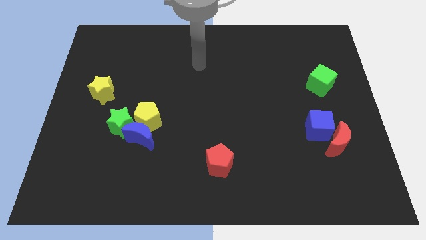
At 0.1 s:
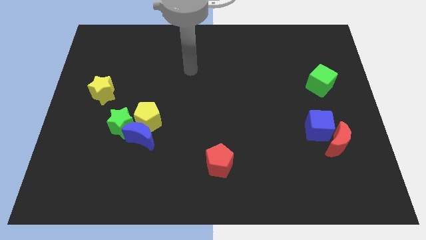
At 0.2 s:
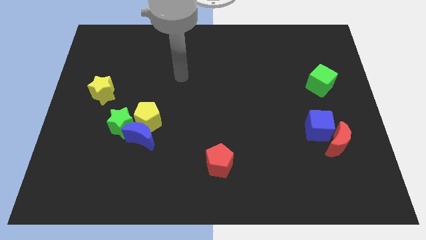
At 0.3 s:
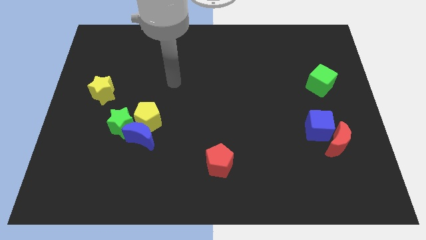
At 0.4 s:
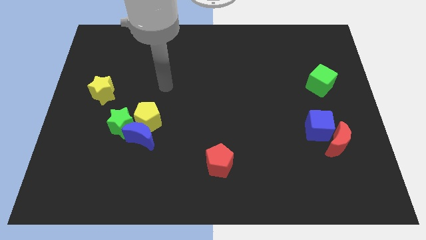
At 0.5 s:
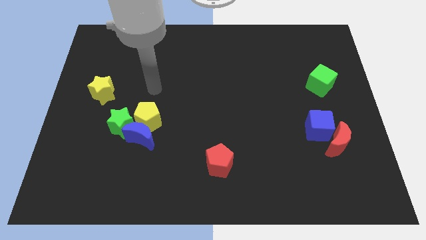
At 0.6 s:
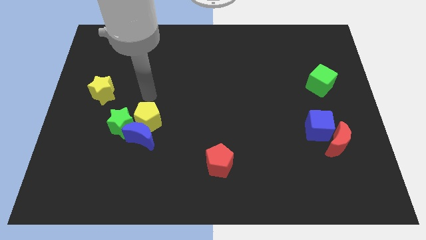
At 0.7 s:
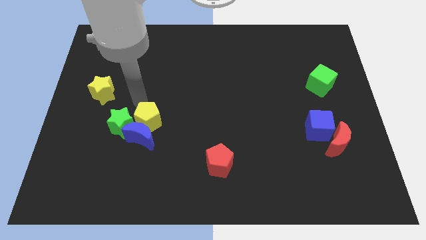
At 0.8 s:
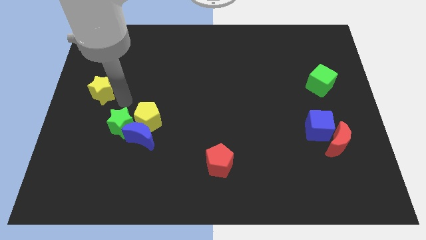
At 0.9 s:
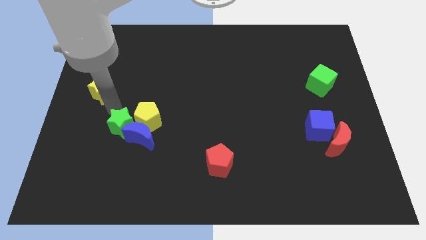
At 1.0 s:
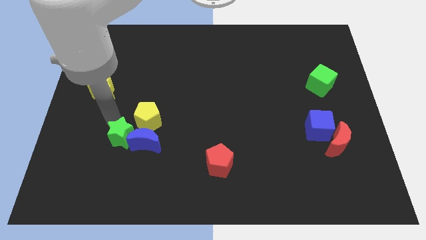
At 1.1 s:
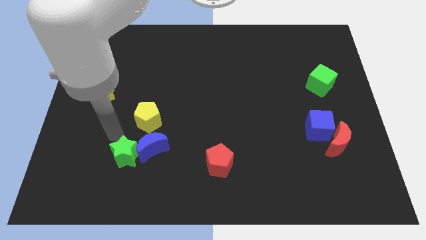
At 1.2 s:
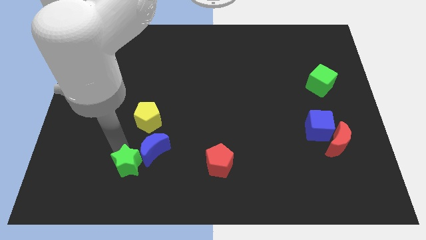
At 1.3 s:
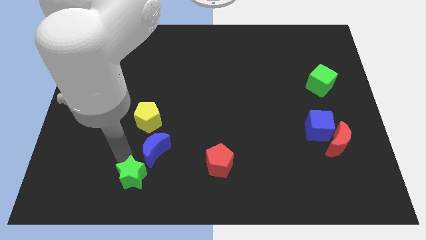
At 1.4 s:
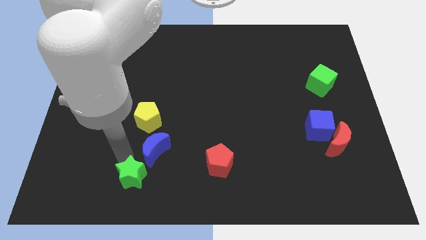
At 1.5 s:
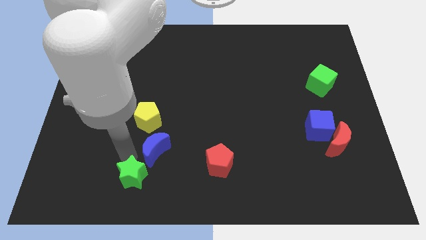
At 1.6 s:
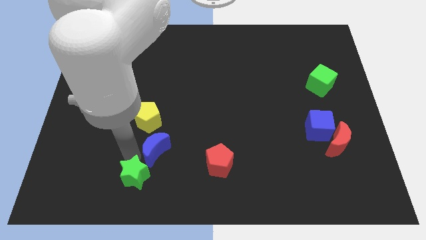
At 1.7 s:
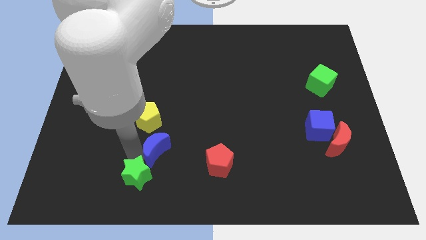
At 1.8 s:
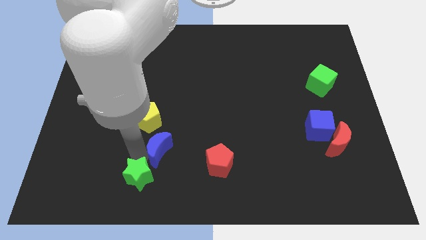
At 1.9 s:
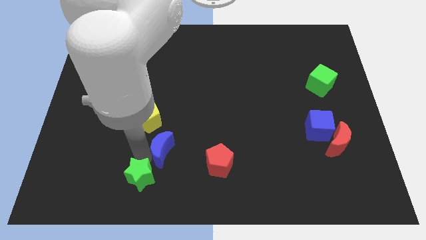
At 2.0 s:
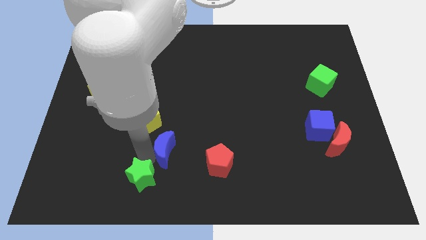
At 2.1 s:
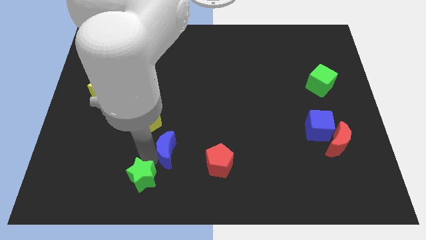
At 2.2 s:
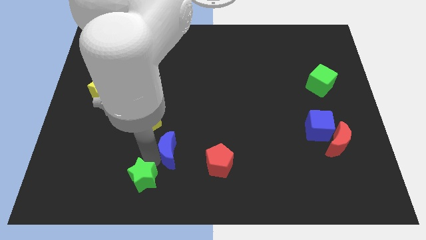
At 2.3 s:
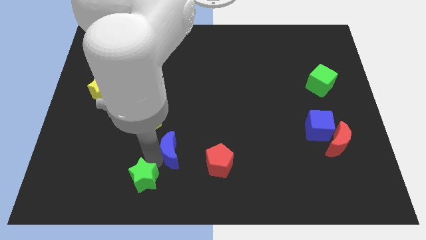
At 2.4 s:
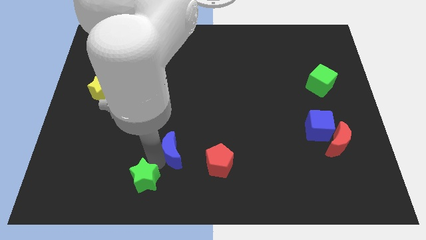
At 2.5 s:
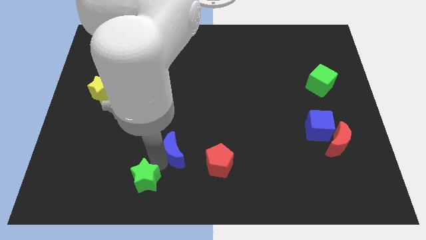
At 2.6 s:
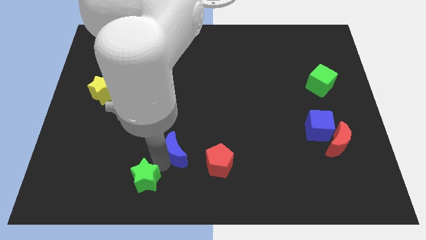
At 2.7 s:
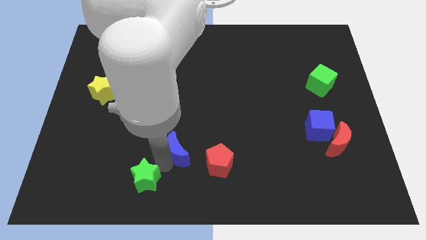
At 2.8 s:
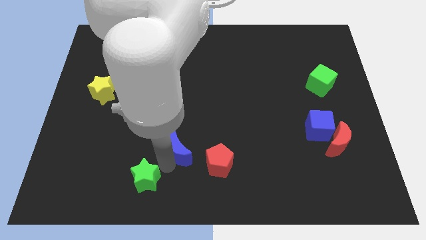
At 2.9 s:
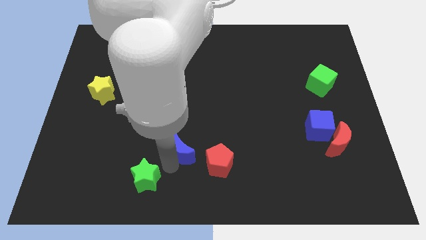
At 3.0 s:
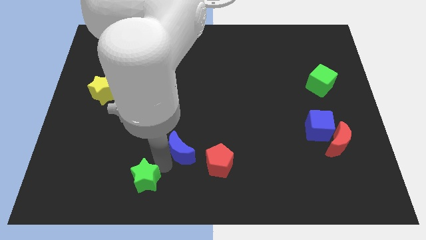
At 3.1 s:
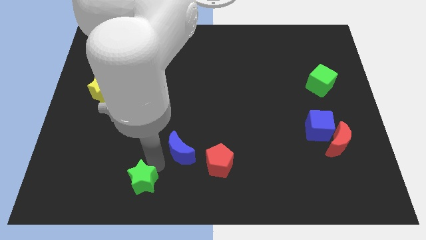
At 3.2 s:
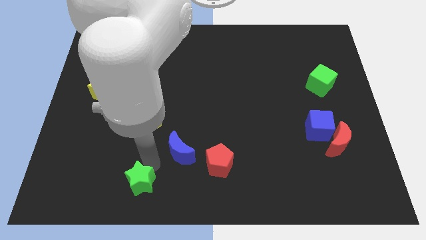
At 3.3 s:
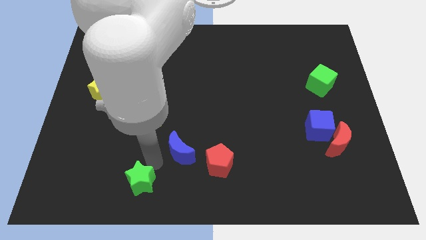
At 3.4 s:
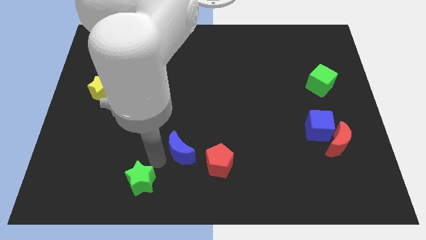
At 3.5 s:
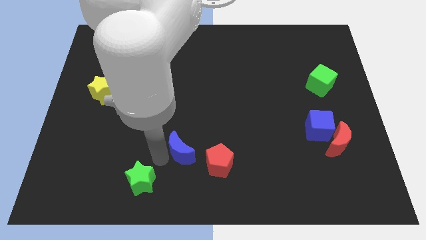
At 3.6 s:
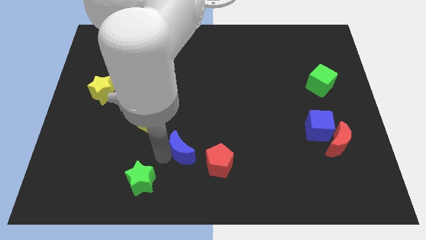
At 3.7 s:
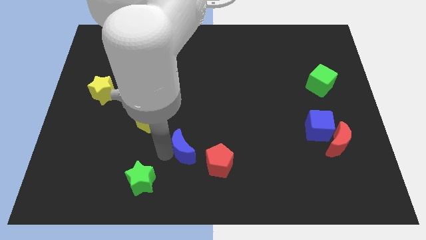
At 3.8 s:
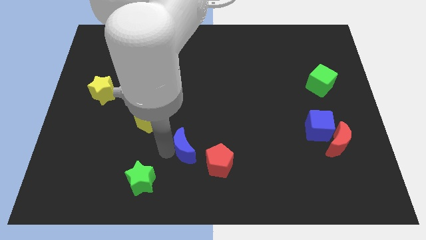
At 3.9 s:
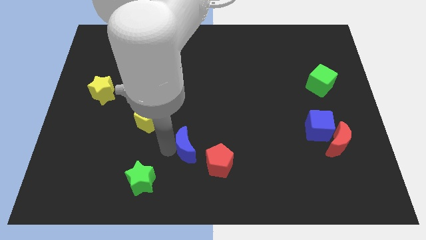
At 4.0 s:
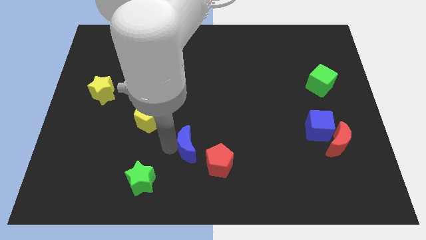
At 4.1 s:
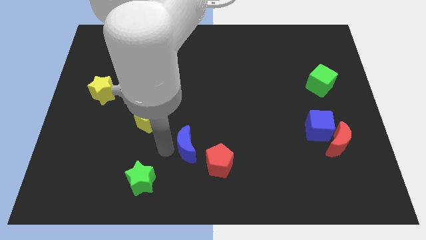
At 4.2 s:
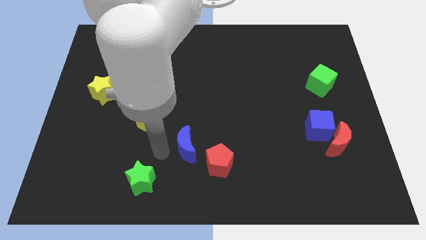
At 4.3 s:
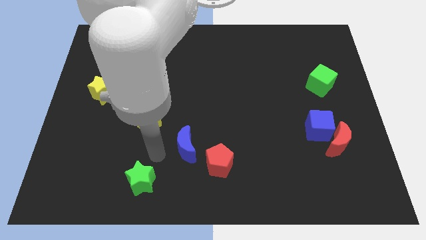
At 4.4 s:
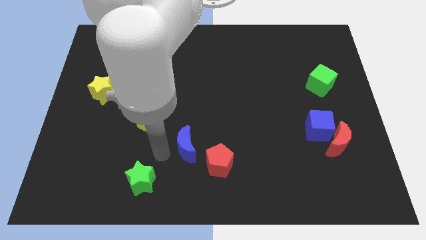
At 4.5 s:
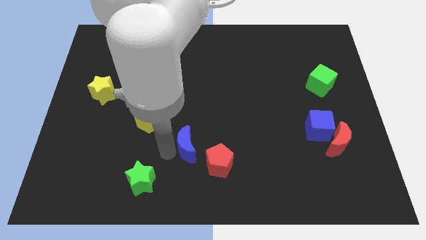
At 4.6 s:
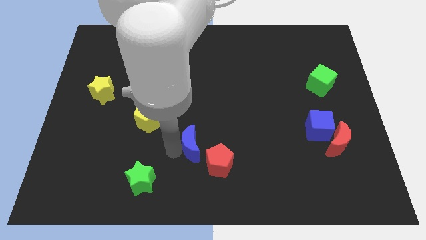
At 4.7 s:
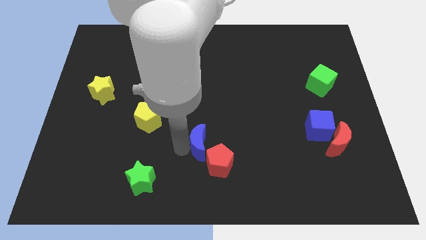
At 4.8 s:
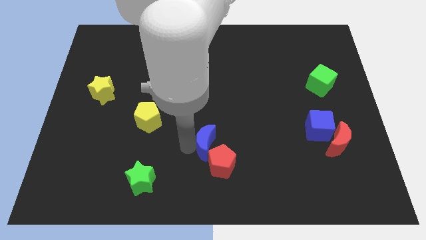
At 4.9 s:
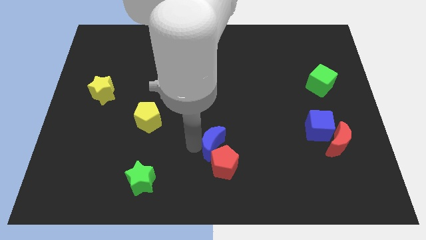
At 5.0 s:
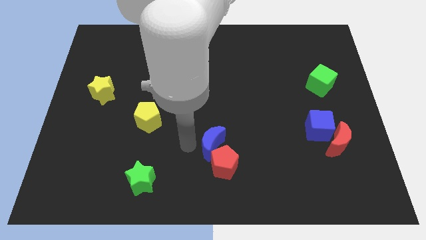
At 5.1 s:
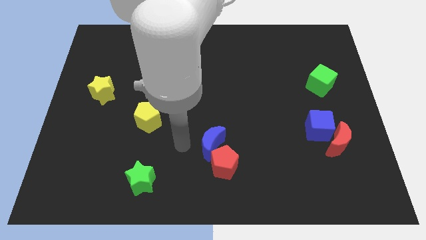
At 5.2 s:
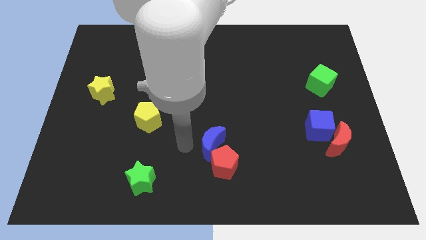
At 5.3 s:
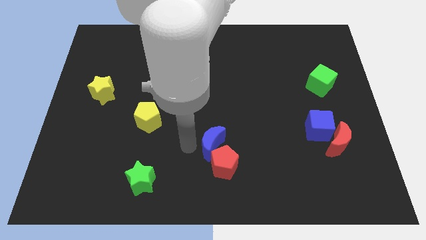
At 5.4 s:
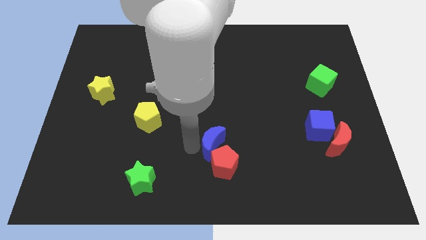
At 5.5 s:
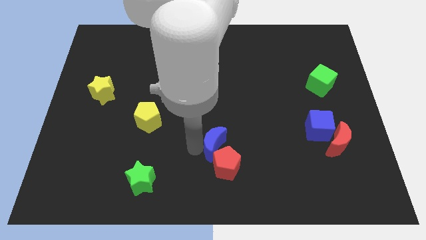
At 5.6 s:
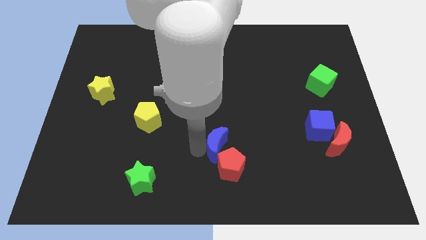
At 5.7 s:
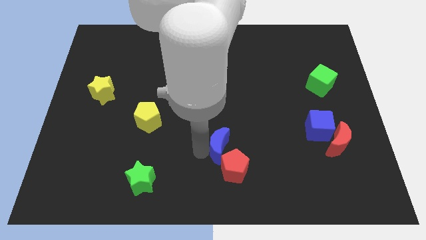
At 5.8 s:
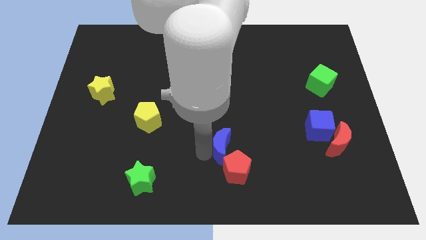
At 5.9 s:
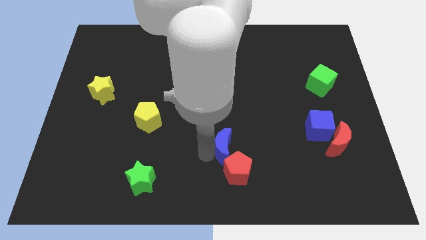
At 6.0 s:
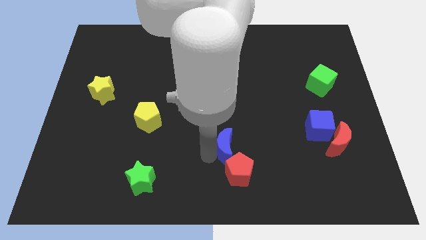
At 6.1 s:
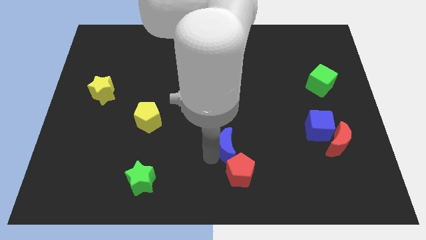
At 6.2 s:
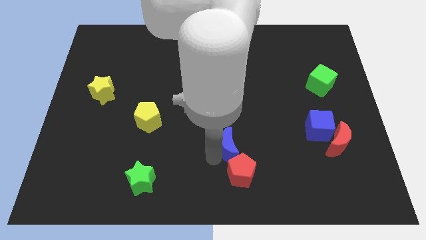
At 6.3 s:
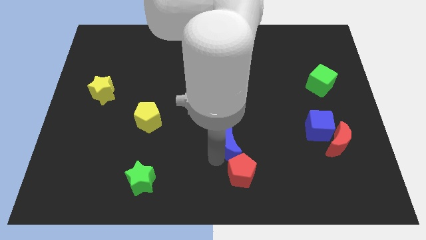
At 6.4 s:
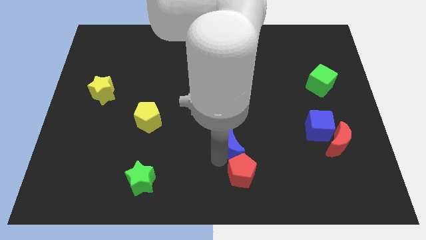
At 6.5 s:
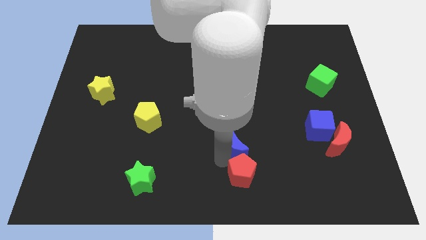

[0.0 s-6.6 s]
slide the blue moon right

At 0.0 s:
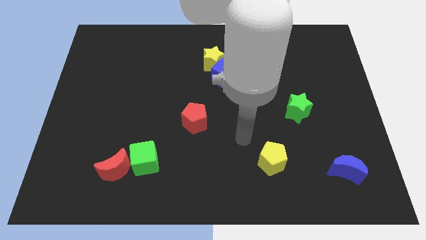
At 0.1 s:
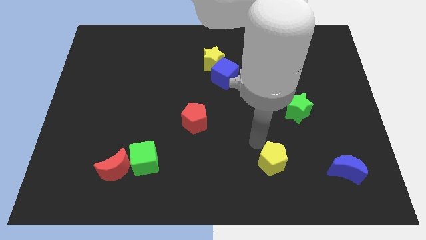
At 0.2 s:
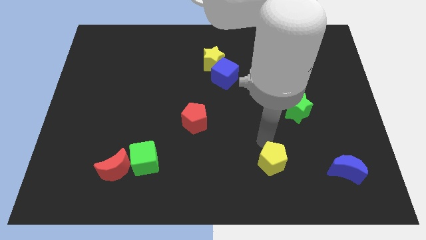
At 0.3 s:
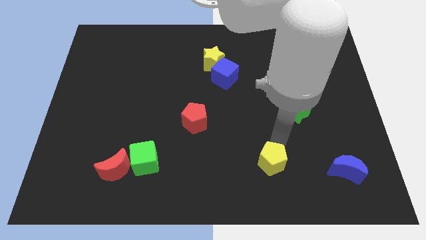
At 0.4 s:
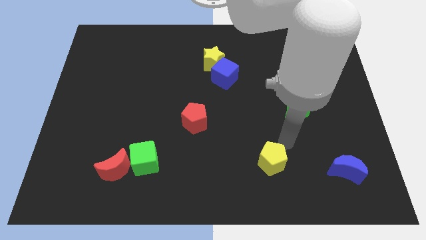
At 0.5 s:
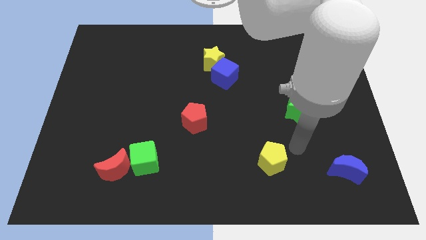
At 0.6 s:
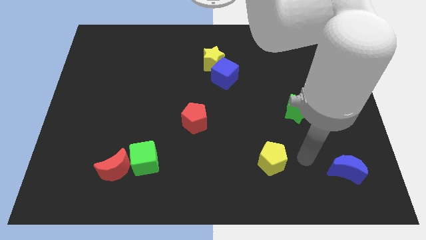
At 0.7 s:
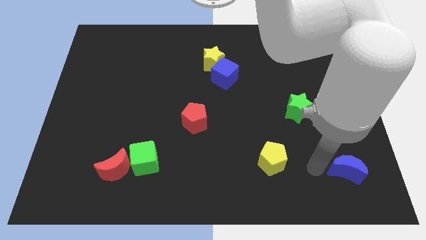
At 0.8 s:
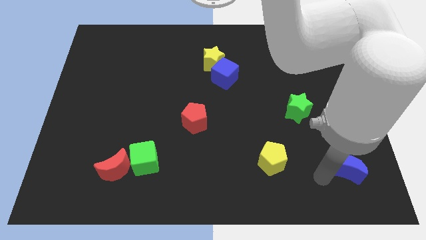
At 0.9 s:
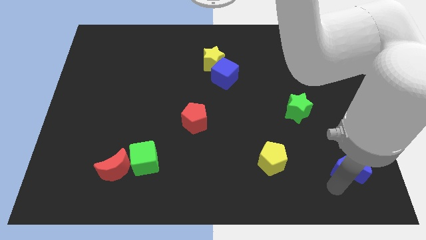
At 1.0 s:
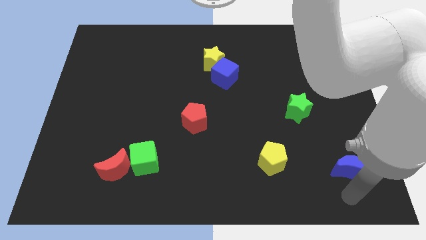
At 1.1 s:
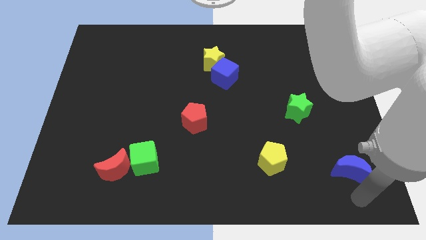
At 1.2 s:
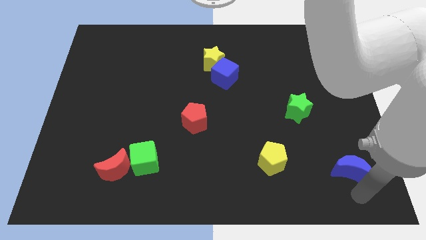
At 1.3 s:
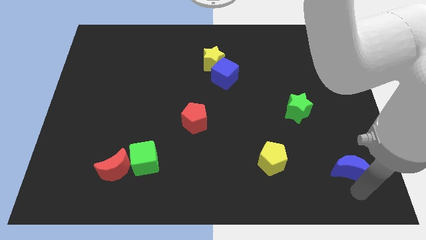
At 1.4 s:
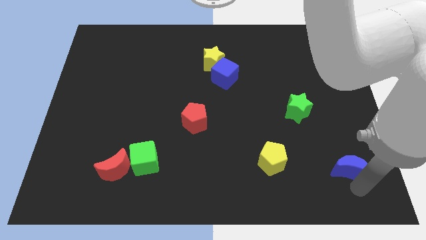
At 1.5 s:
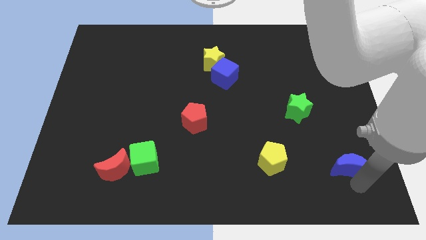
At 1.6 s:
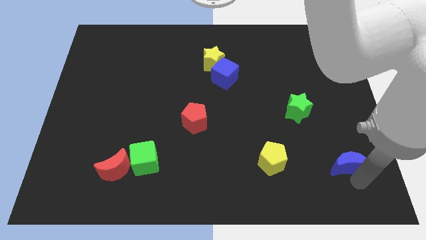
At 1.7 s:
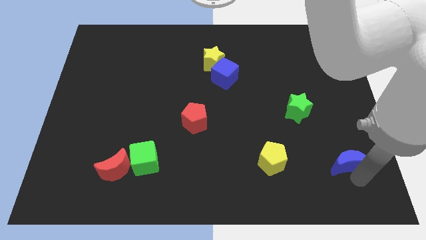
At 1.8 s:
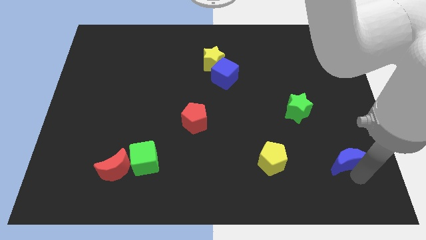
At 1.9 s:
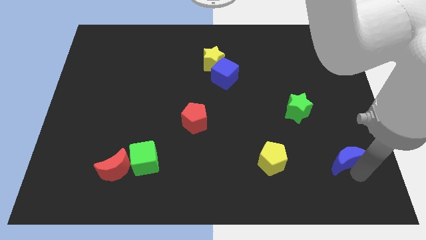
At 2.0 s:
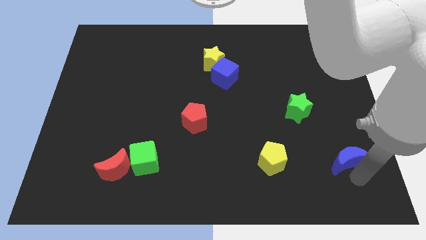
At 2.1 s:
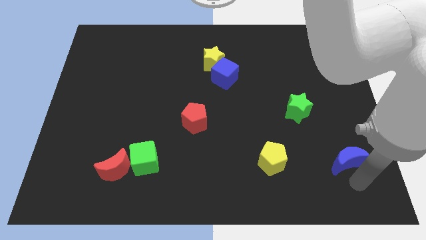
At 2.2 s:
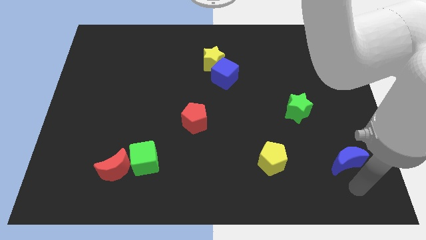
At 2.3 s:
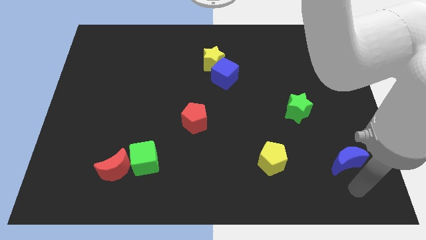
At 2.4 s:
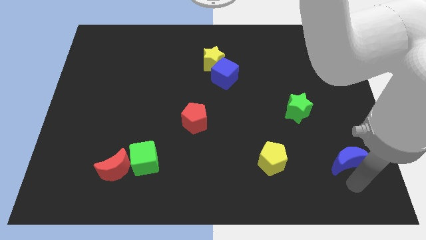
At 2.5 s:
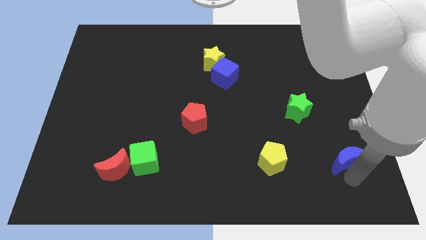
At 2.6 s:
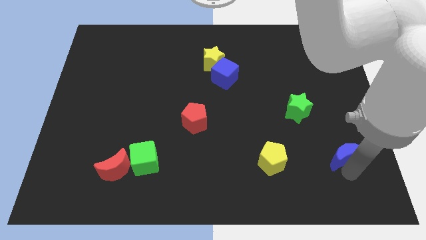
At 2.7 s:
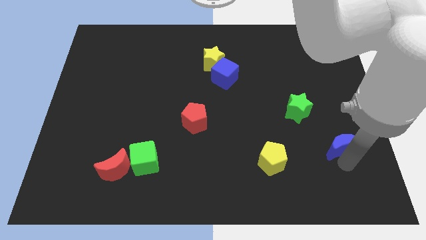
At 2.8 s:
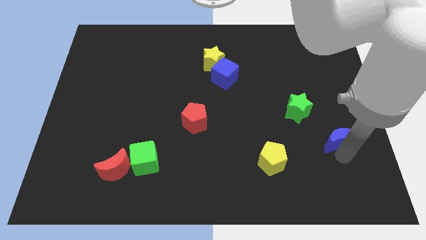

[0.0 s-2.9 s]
slightly move the blue moon upwards
